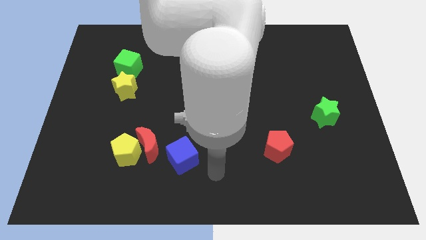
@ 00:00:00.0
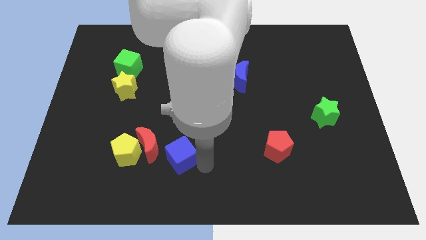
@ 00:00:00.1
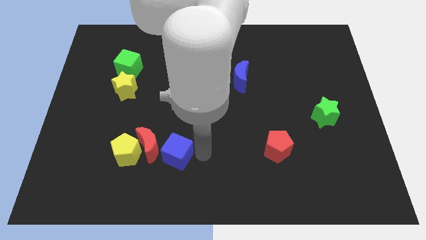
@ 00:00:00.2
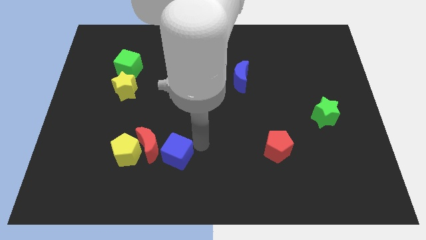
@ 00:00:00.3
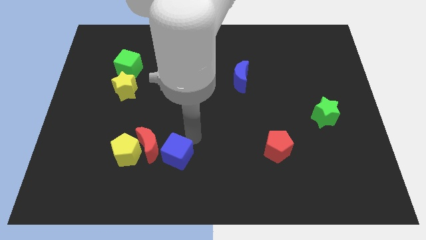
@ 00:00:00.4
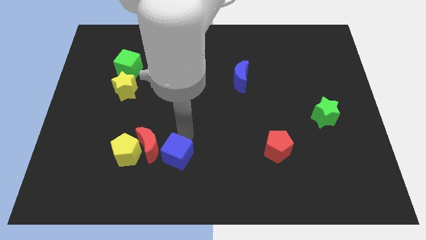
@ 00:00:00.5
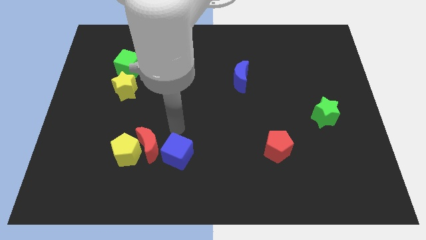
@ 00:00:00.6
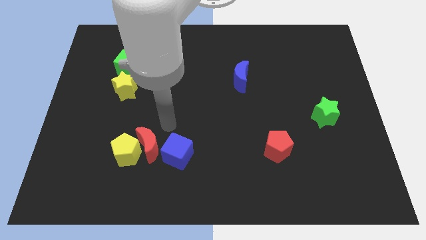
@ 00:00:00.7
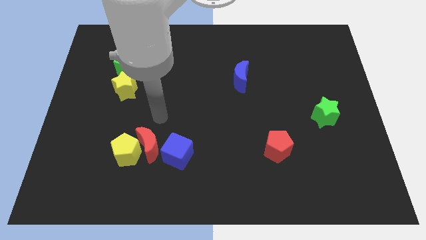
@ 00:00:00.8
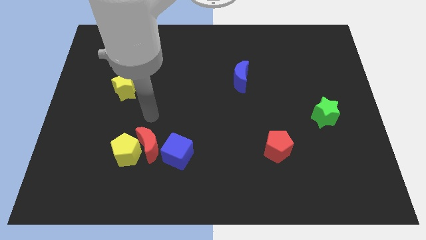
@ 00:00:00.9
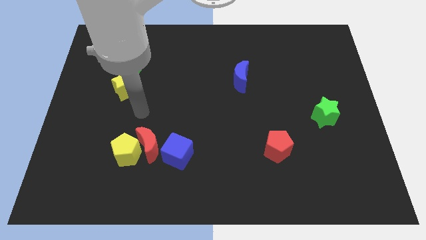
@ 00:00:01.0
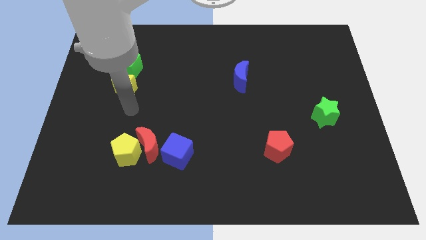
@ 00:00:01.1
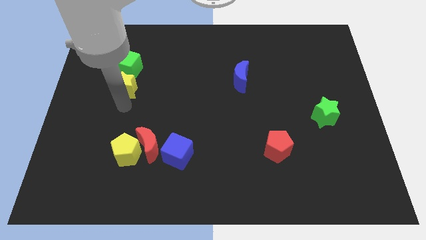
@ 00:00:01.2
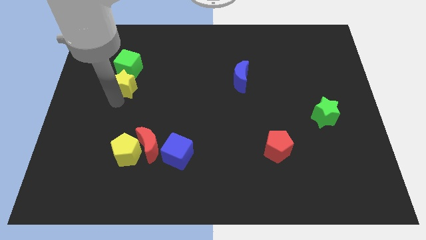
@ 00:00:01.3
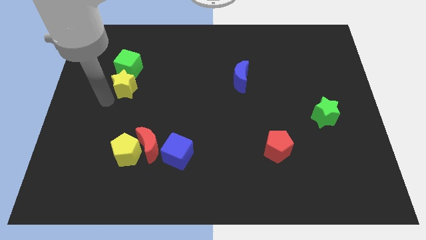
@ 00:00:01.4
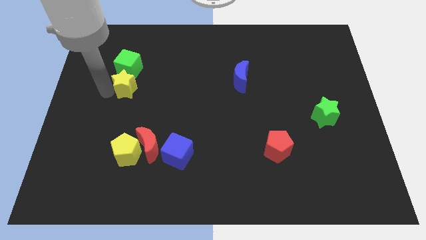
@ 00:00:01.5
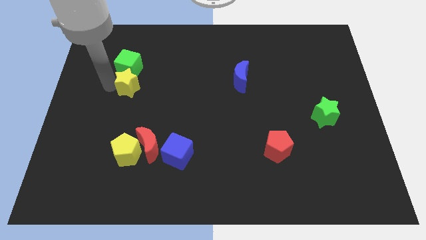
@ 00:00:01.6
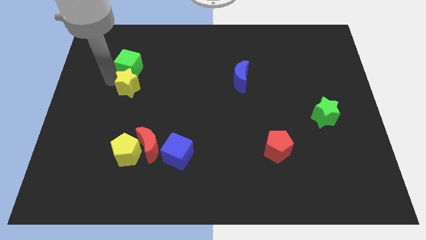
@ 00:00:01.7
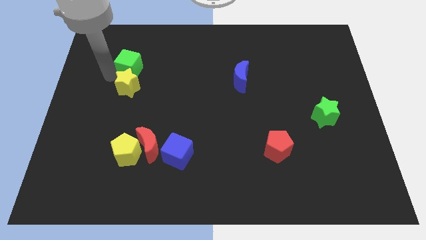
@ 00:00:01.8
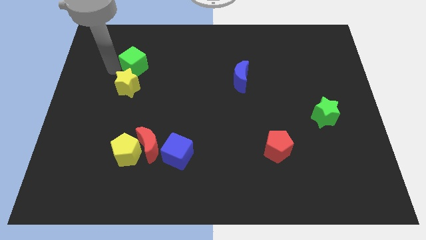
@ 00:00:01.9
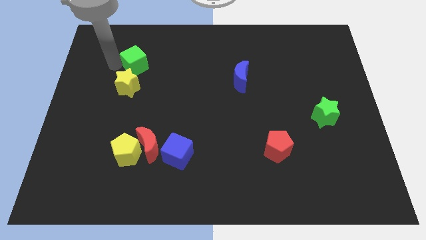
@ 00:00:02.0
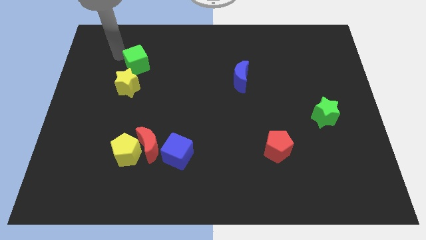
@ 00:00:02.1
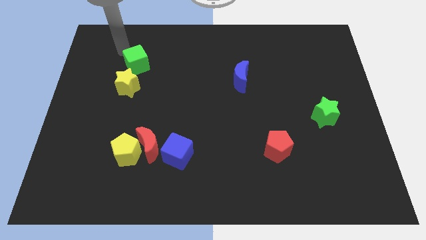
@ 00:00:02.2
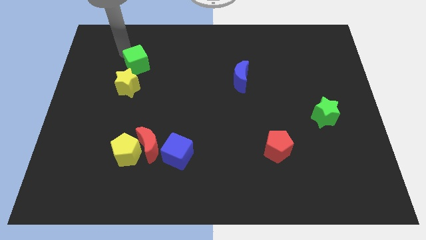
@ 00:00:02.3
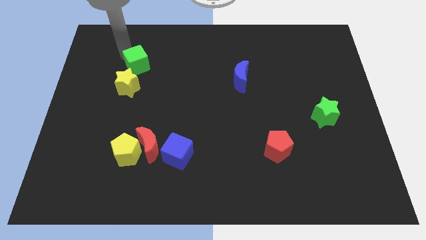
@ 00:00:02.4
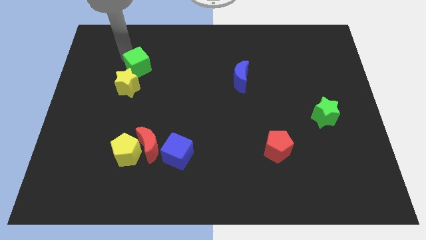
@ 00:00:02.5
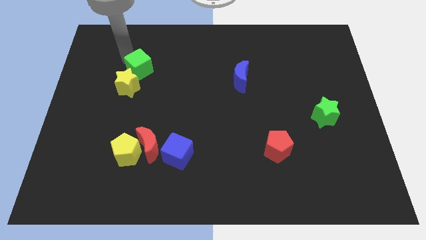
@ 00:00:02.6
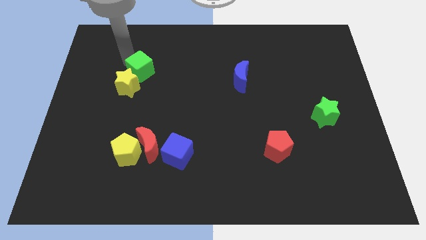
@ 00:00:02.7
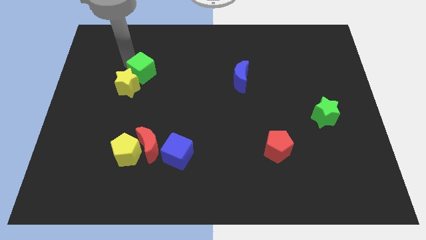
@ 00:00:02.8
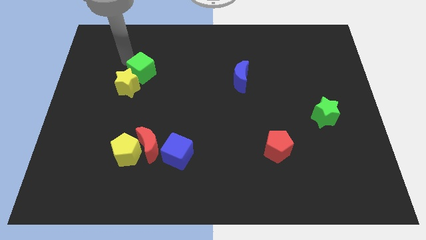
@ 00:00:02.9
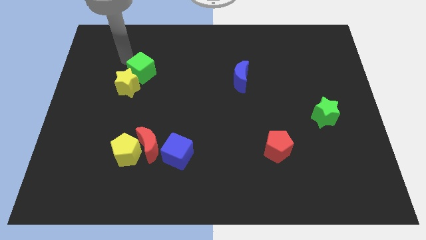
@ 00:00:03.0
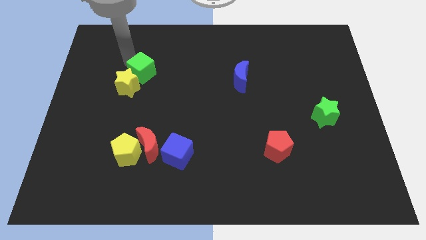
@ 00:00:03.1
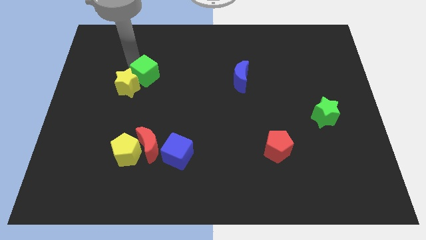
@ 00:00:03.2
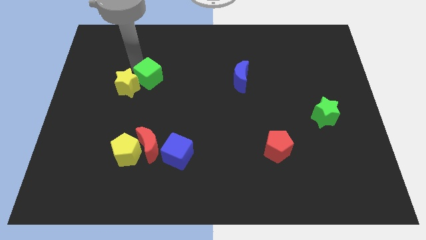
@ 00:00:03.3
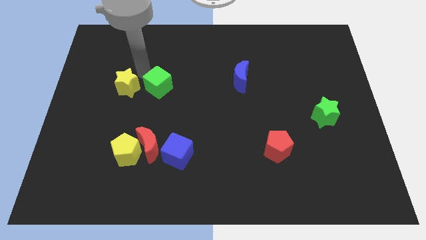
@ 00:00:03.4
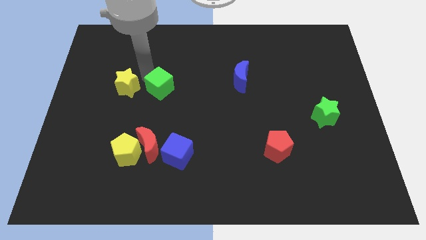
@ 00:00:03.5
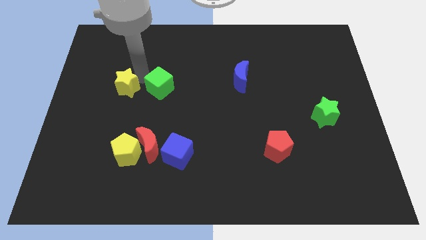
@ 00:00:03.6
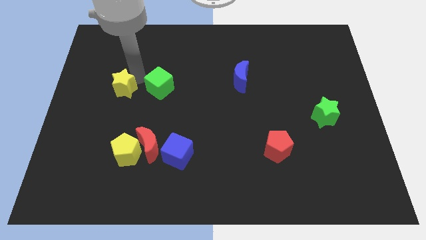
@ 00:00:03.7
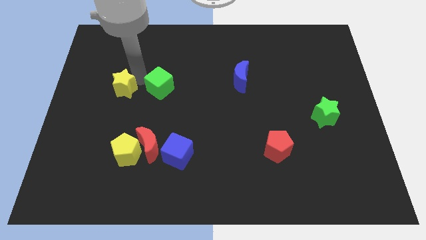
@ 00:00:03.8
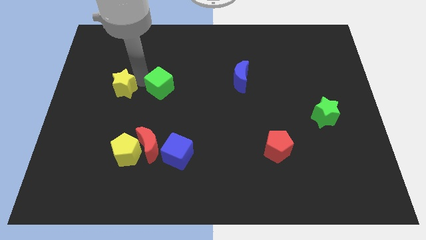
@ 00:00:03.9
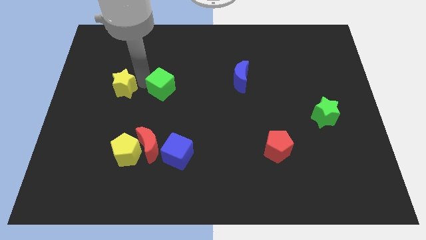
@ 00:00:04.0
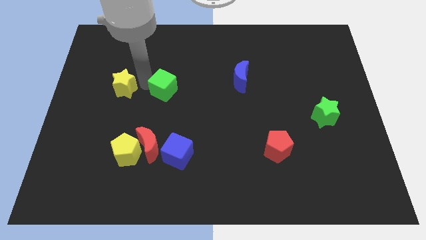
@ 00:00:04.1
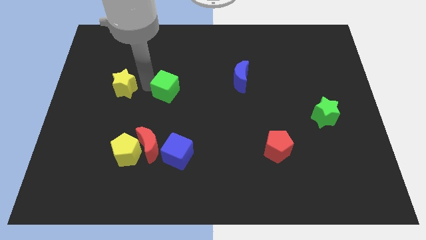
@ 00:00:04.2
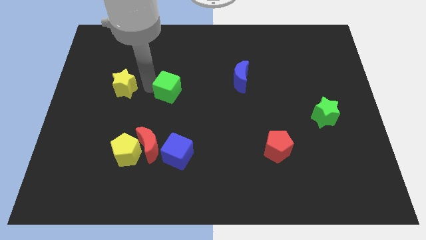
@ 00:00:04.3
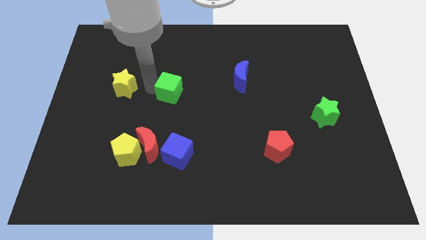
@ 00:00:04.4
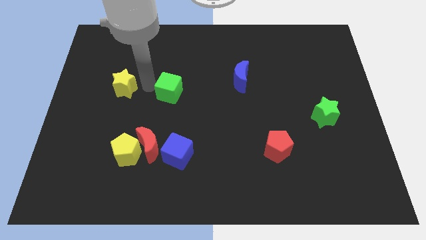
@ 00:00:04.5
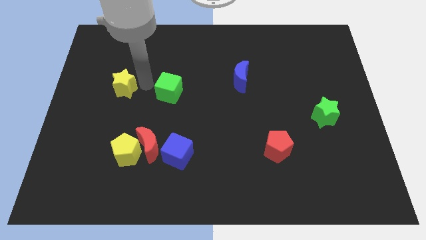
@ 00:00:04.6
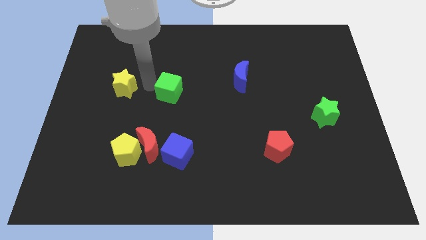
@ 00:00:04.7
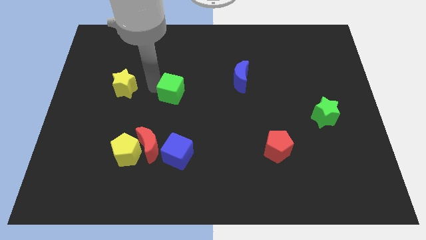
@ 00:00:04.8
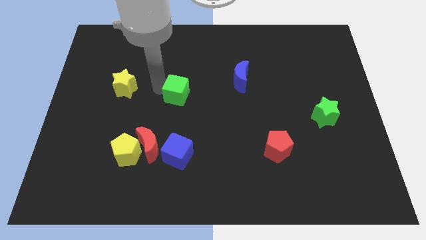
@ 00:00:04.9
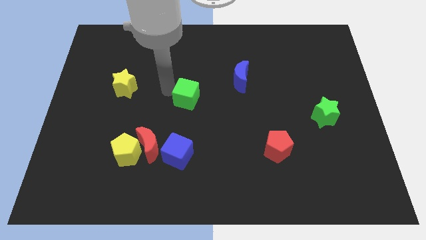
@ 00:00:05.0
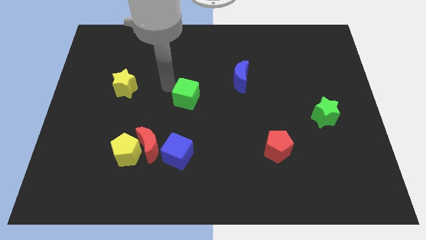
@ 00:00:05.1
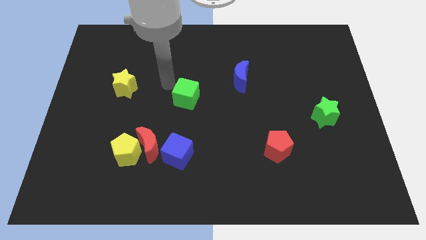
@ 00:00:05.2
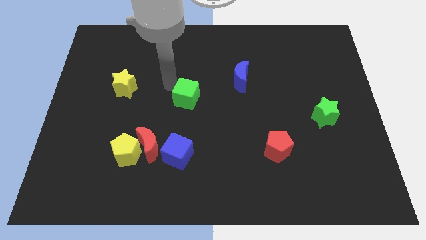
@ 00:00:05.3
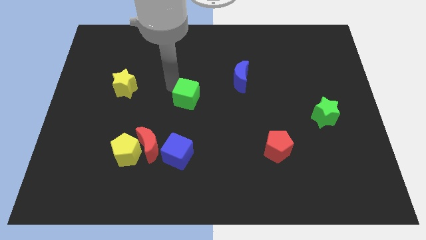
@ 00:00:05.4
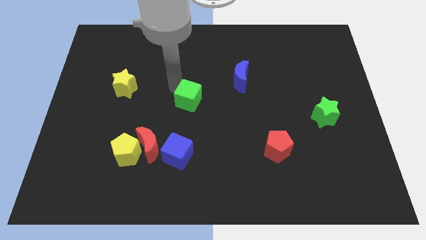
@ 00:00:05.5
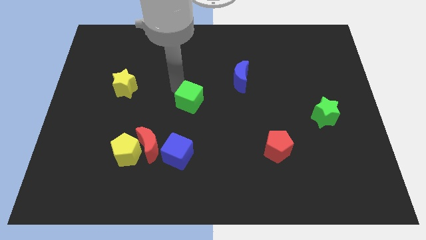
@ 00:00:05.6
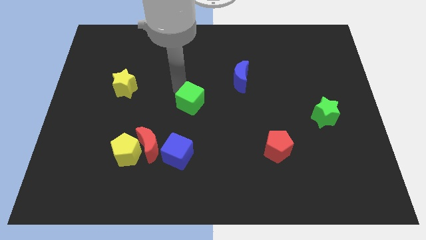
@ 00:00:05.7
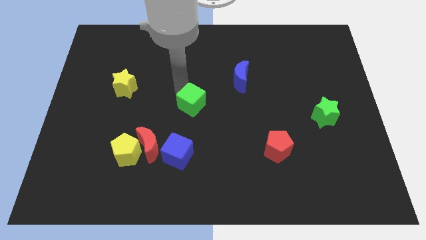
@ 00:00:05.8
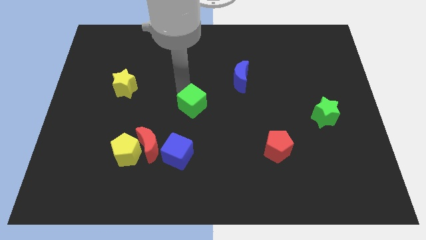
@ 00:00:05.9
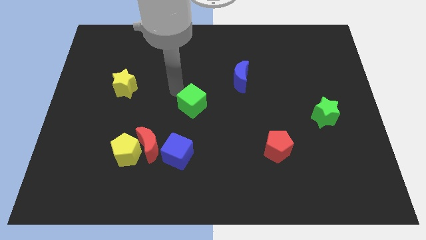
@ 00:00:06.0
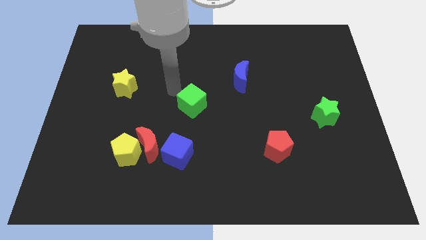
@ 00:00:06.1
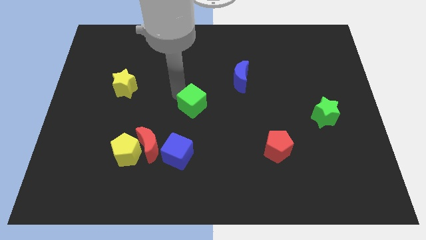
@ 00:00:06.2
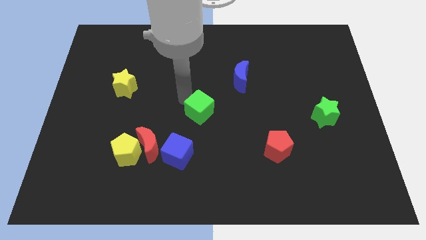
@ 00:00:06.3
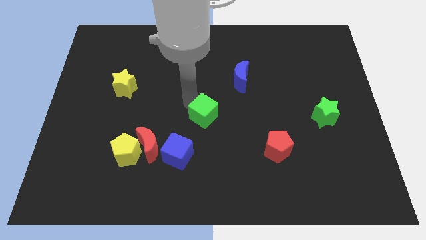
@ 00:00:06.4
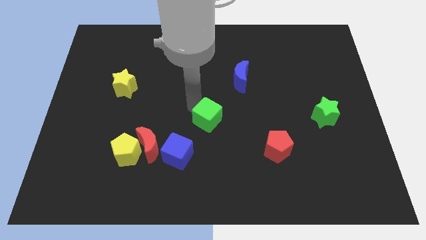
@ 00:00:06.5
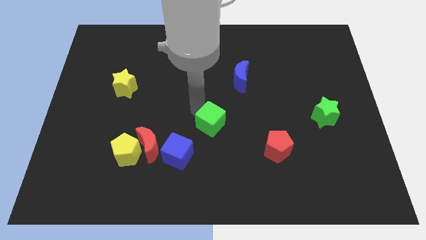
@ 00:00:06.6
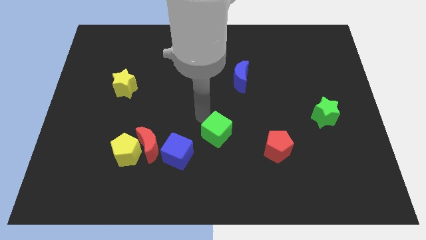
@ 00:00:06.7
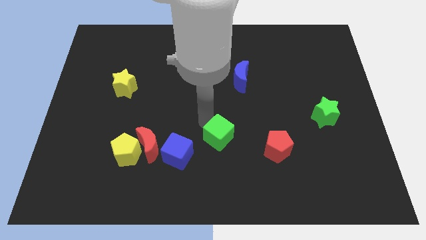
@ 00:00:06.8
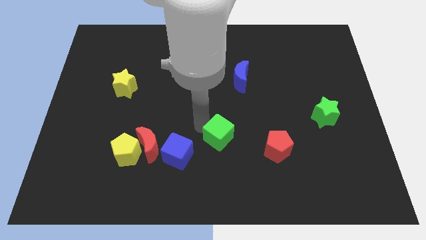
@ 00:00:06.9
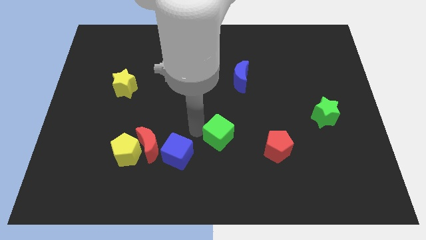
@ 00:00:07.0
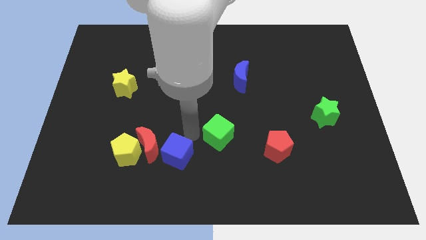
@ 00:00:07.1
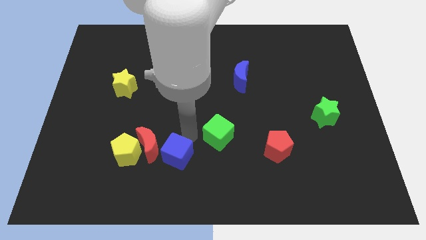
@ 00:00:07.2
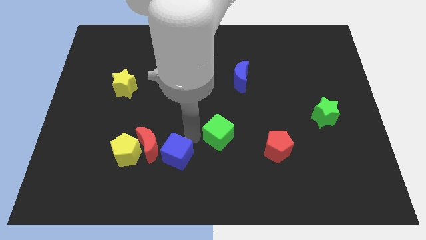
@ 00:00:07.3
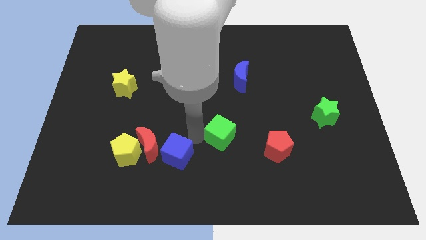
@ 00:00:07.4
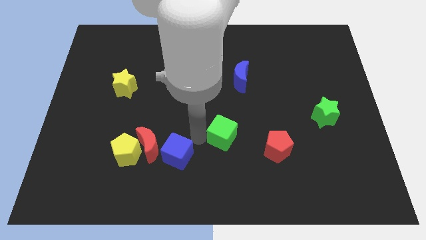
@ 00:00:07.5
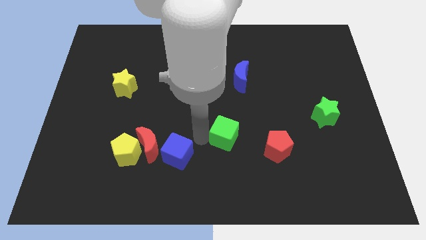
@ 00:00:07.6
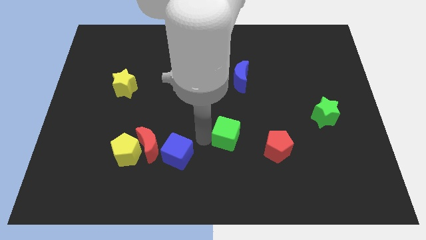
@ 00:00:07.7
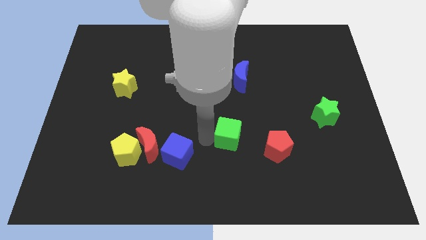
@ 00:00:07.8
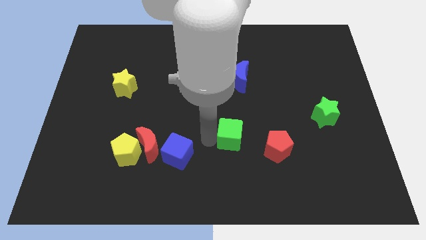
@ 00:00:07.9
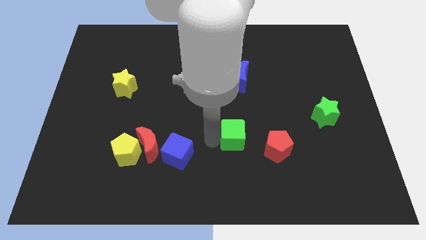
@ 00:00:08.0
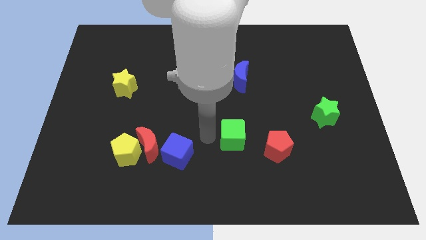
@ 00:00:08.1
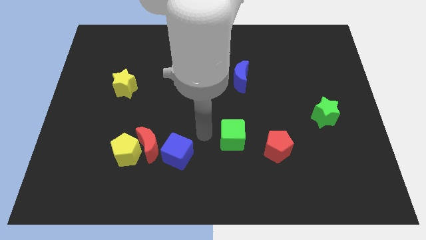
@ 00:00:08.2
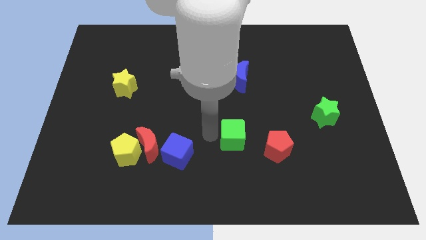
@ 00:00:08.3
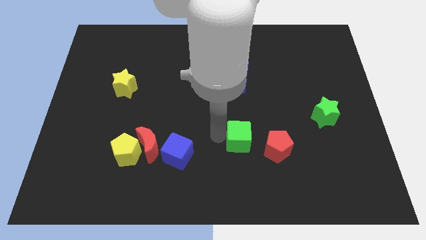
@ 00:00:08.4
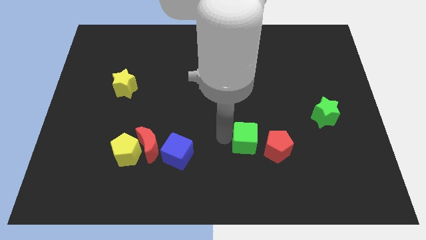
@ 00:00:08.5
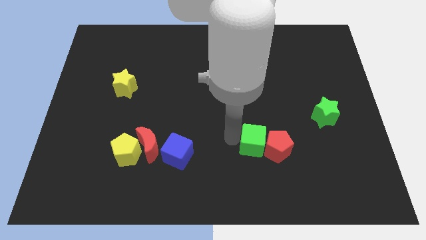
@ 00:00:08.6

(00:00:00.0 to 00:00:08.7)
put the green cube towards the red pentagon
